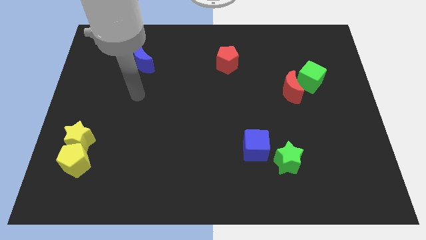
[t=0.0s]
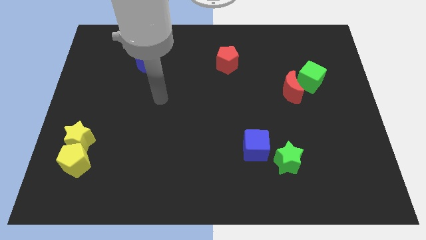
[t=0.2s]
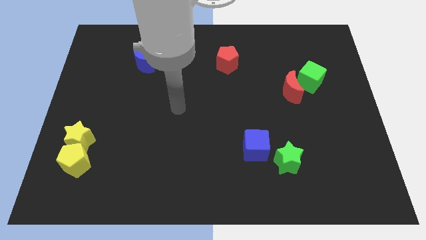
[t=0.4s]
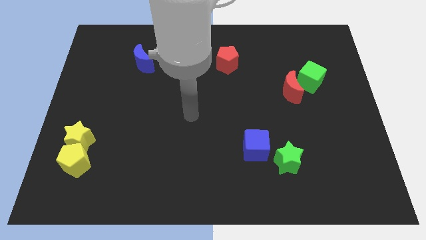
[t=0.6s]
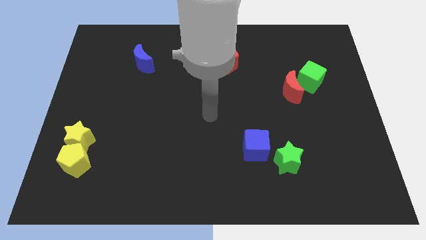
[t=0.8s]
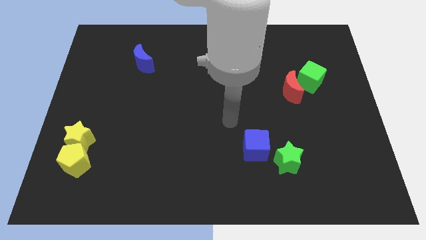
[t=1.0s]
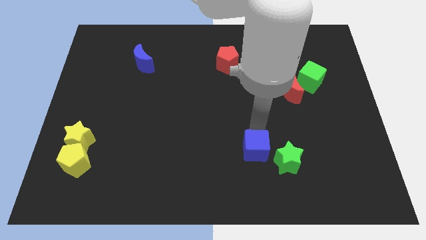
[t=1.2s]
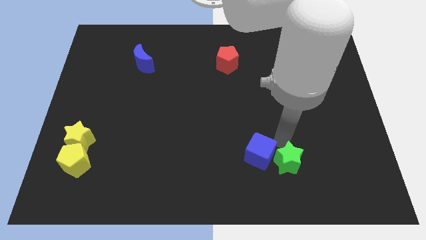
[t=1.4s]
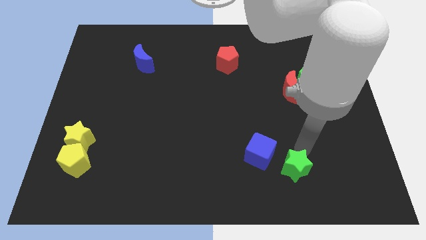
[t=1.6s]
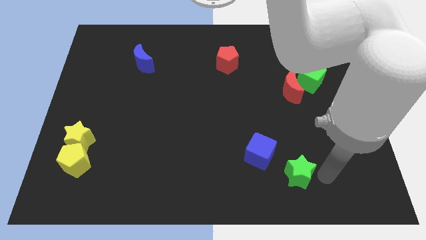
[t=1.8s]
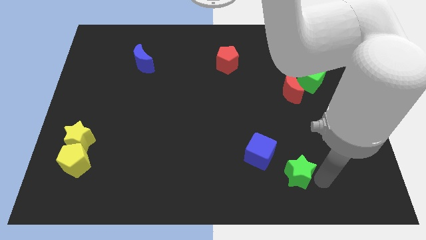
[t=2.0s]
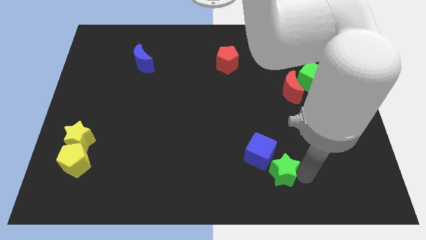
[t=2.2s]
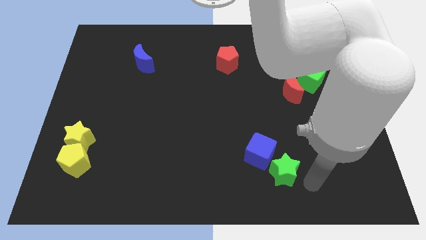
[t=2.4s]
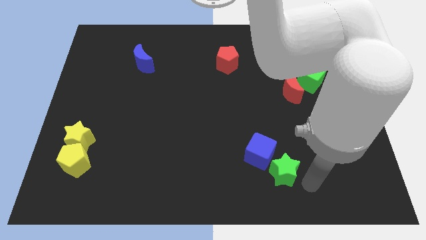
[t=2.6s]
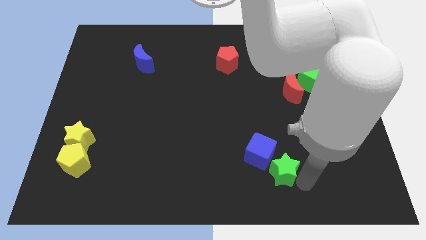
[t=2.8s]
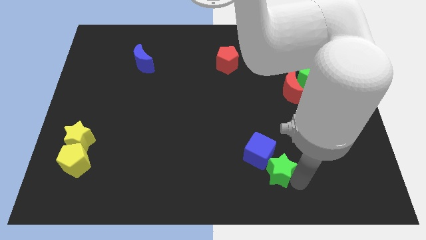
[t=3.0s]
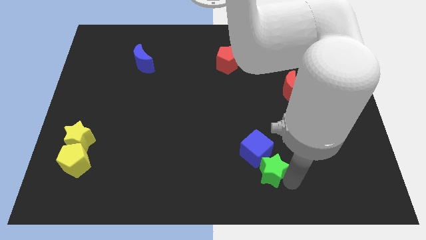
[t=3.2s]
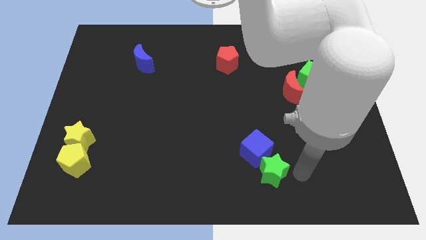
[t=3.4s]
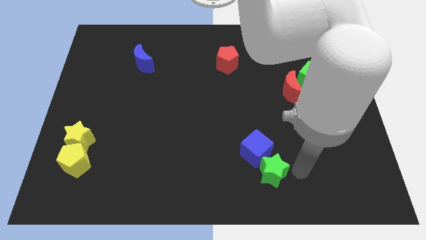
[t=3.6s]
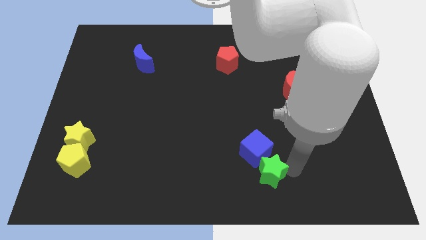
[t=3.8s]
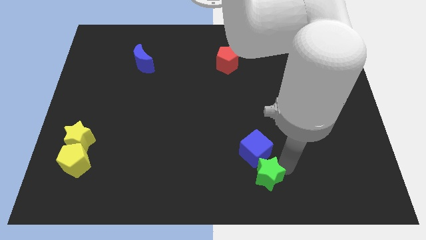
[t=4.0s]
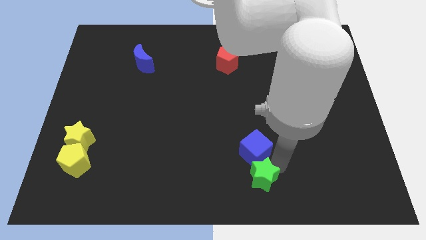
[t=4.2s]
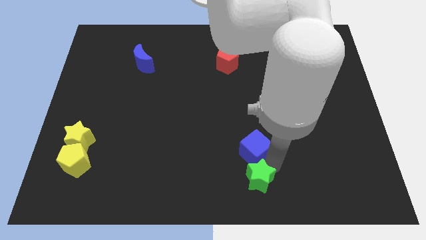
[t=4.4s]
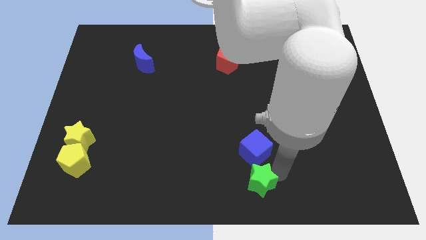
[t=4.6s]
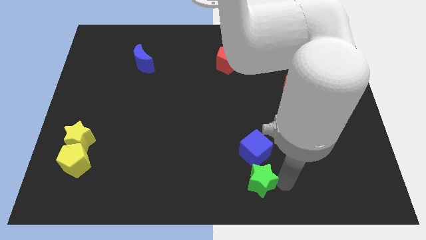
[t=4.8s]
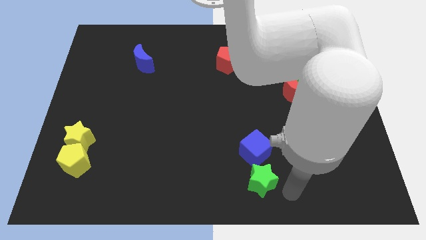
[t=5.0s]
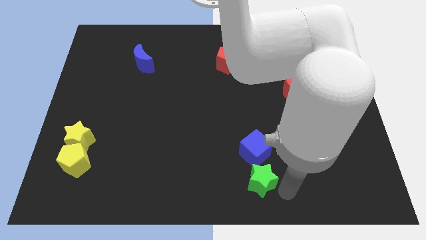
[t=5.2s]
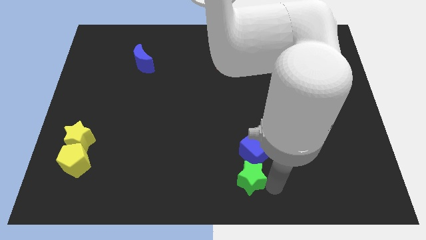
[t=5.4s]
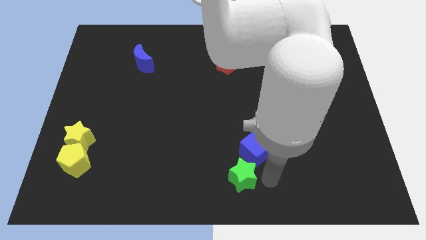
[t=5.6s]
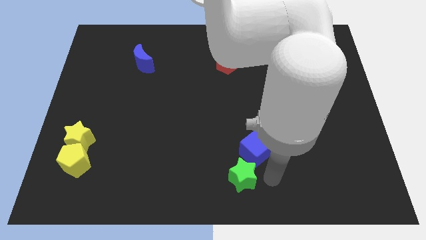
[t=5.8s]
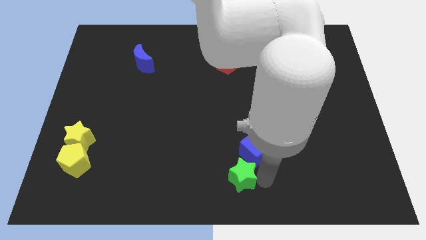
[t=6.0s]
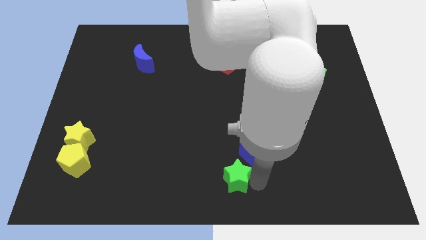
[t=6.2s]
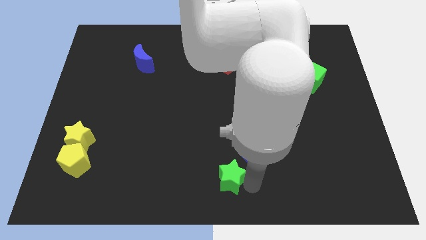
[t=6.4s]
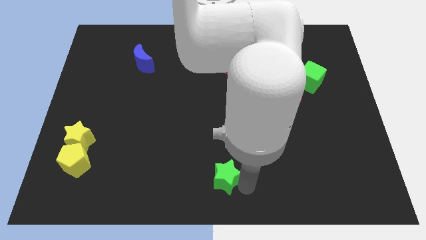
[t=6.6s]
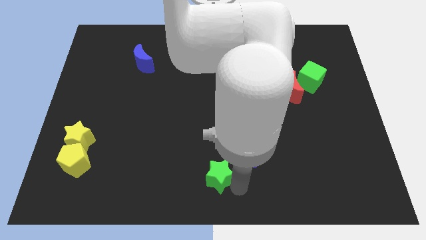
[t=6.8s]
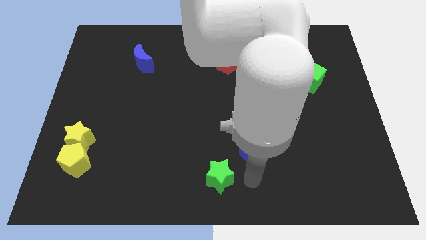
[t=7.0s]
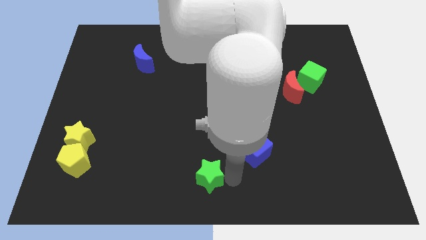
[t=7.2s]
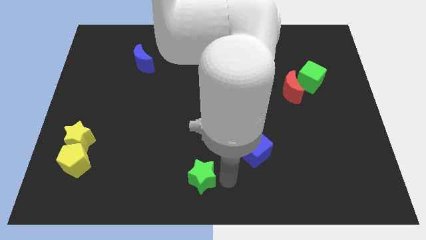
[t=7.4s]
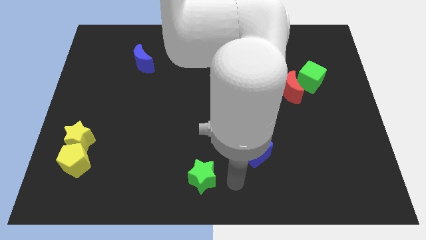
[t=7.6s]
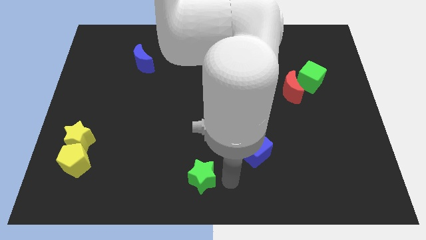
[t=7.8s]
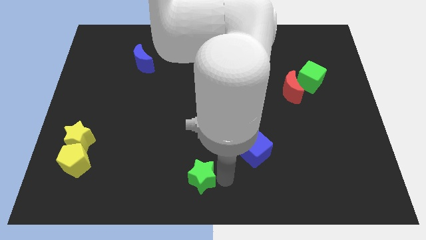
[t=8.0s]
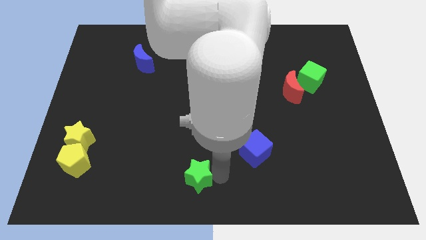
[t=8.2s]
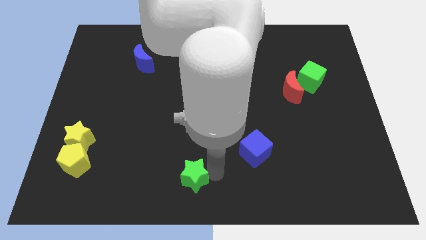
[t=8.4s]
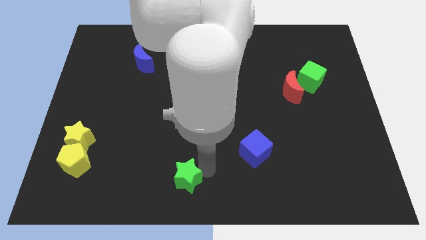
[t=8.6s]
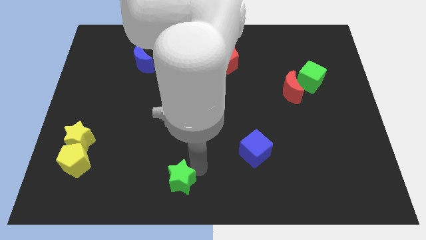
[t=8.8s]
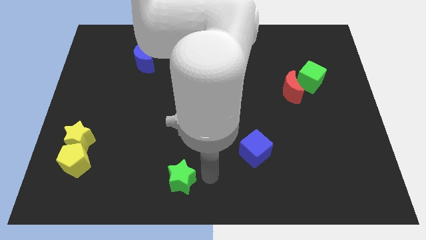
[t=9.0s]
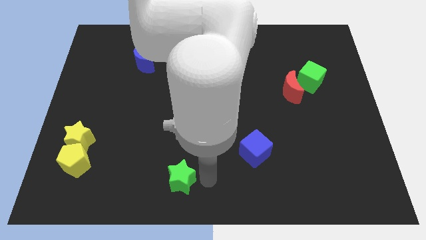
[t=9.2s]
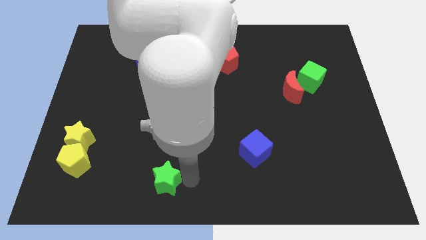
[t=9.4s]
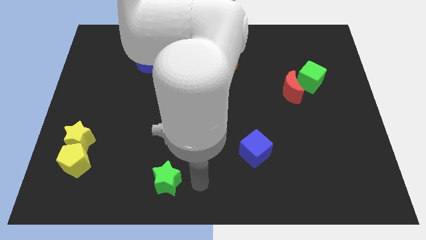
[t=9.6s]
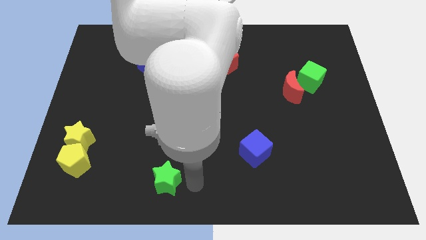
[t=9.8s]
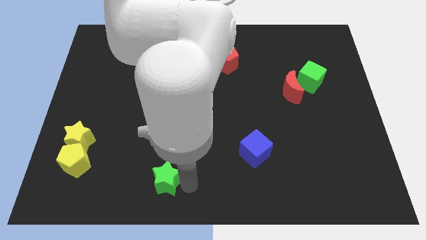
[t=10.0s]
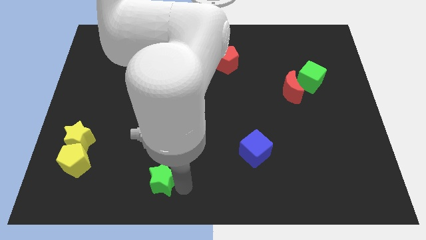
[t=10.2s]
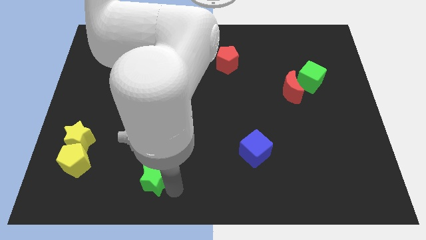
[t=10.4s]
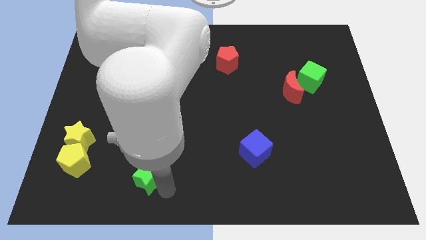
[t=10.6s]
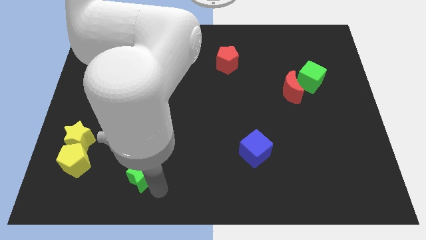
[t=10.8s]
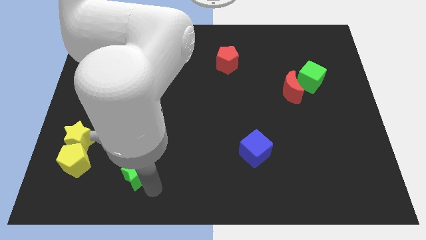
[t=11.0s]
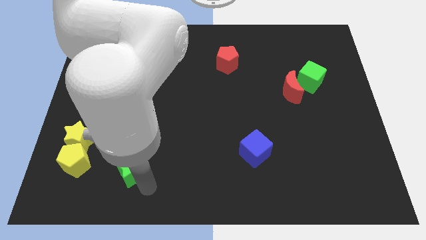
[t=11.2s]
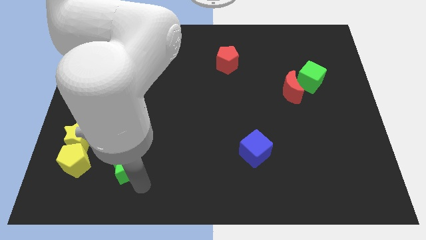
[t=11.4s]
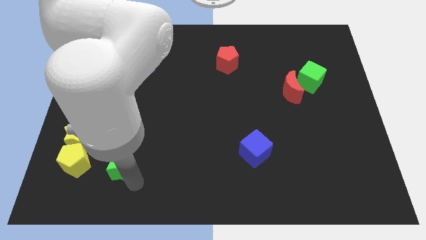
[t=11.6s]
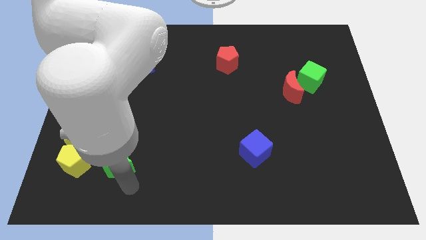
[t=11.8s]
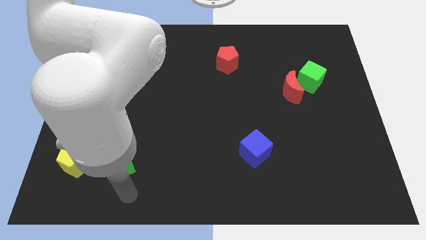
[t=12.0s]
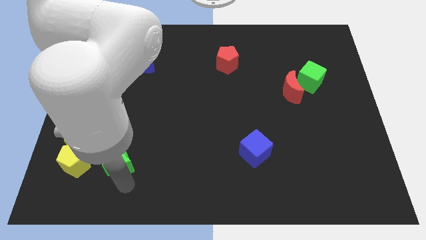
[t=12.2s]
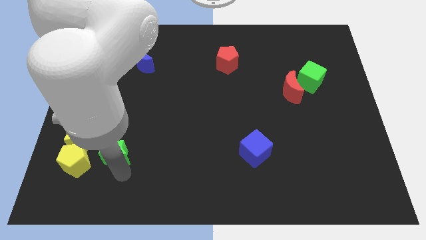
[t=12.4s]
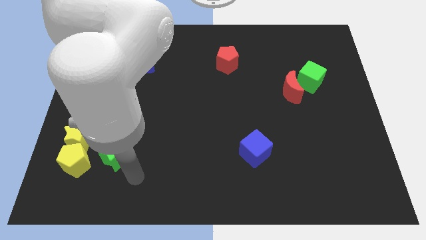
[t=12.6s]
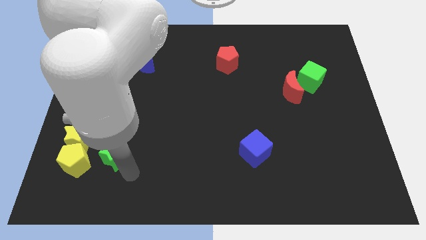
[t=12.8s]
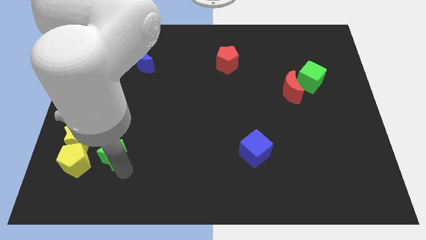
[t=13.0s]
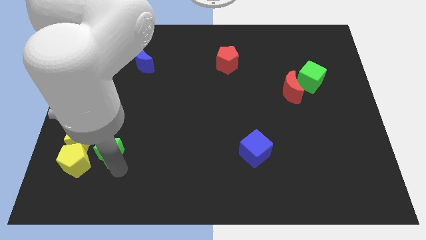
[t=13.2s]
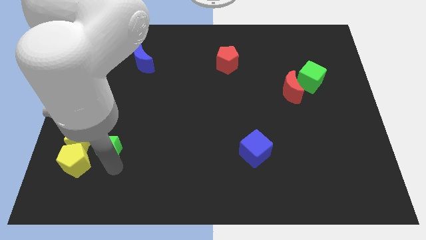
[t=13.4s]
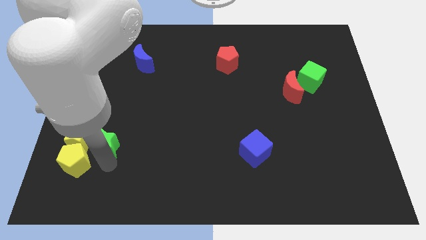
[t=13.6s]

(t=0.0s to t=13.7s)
put the green star close to the yellow star
